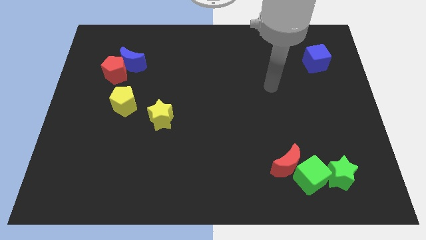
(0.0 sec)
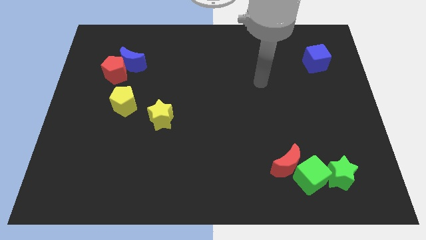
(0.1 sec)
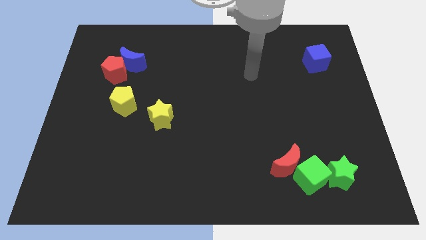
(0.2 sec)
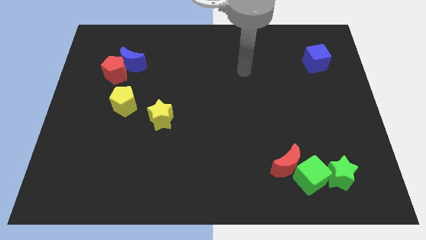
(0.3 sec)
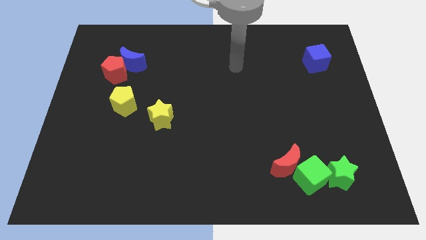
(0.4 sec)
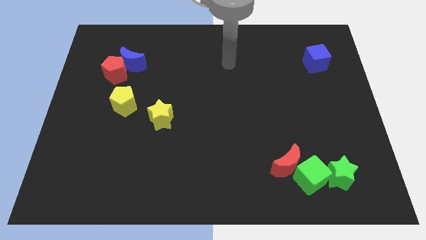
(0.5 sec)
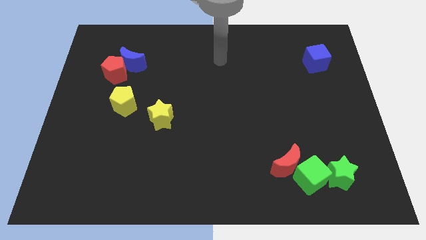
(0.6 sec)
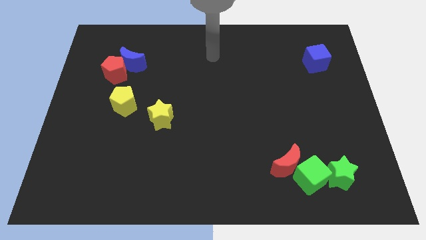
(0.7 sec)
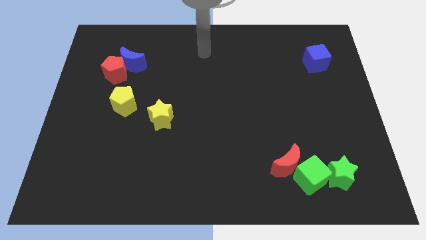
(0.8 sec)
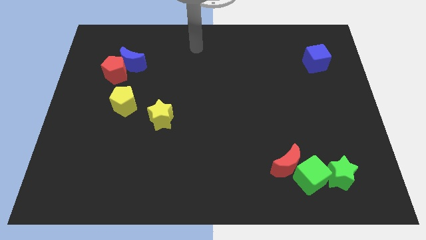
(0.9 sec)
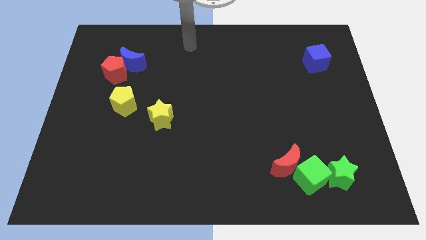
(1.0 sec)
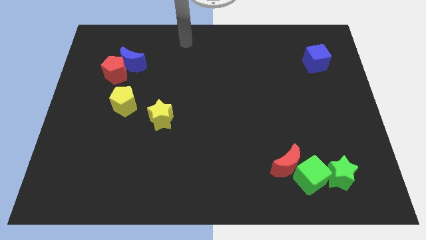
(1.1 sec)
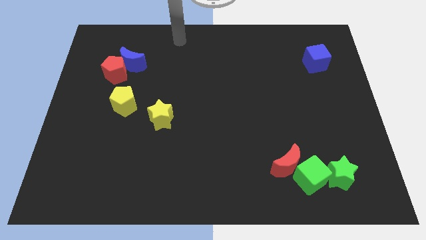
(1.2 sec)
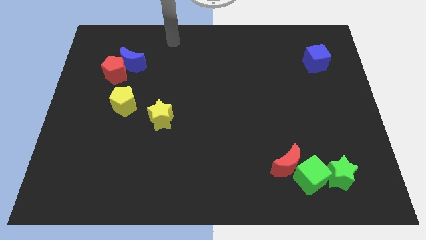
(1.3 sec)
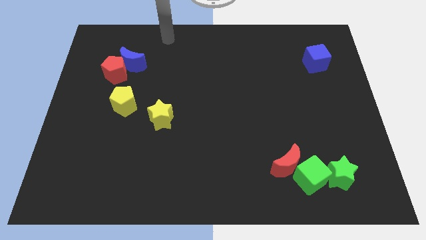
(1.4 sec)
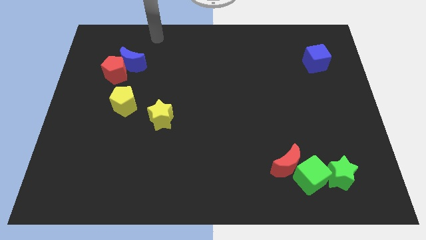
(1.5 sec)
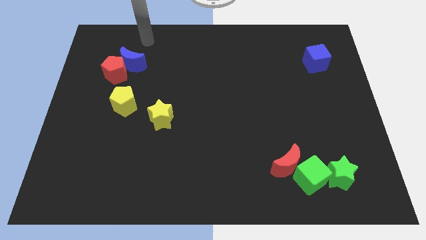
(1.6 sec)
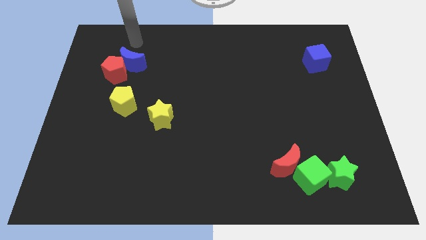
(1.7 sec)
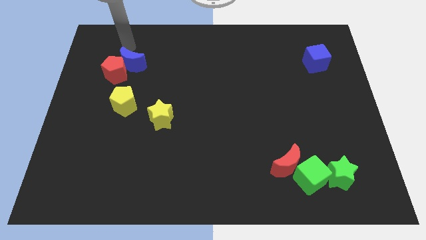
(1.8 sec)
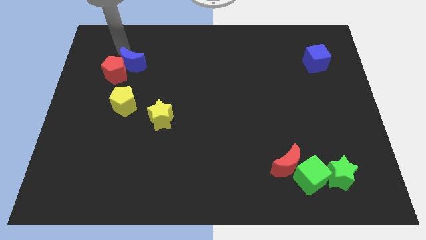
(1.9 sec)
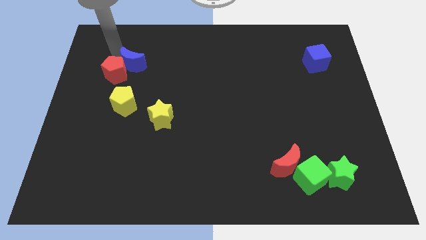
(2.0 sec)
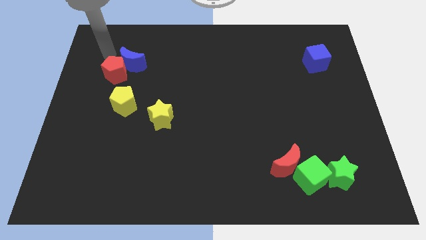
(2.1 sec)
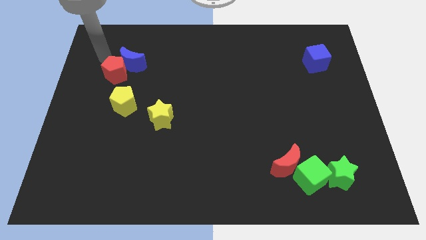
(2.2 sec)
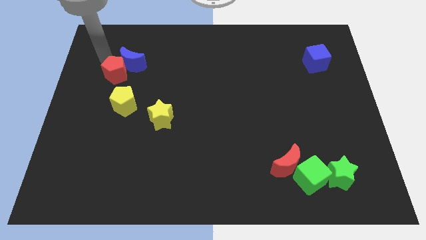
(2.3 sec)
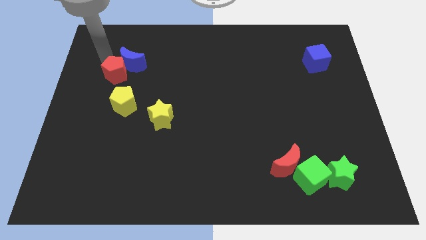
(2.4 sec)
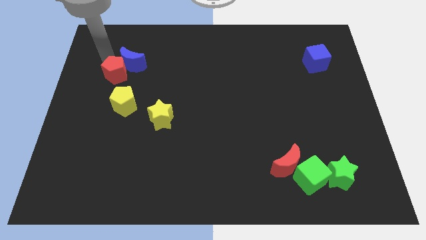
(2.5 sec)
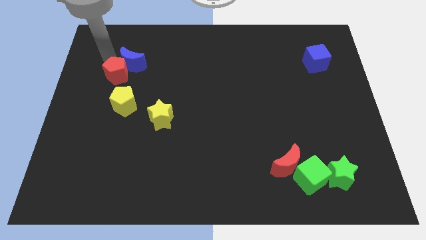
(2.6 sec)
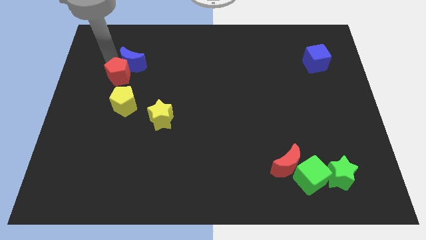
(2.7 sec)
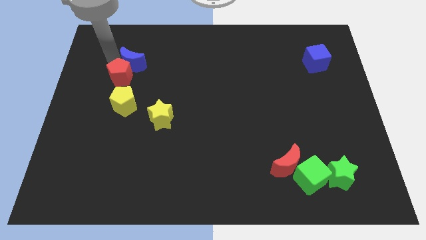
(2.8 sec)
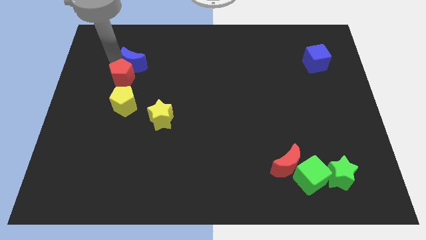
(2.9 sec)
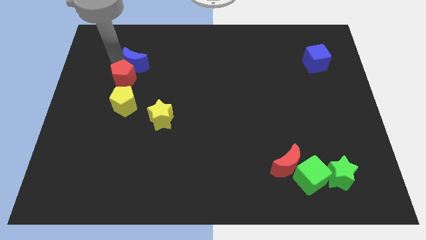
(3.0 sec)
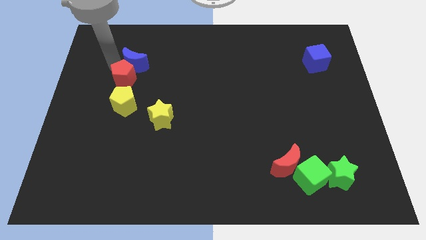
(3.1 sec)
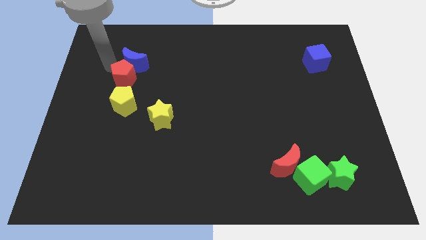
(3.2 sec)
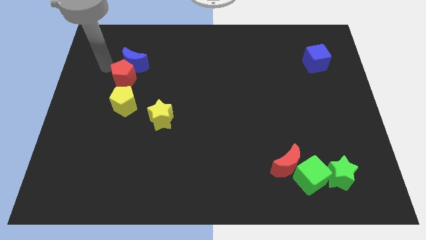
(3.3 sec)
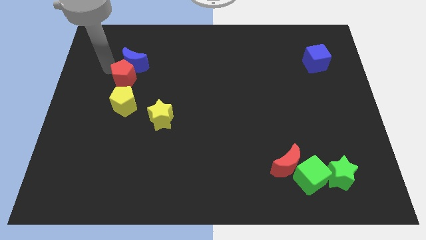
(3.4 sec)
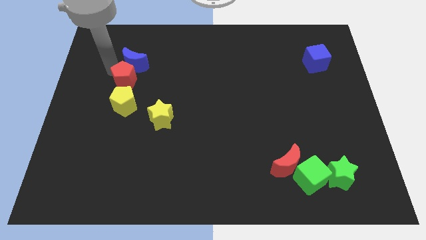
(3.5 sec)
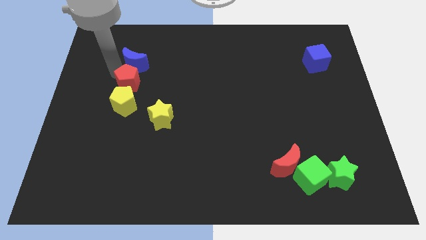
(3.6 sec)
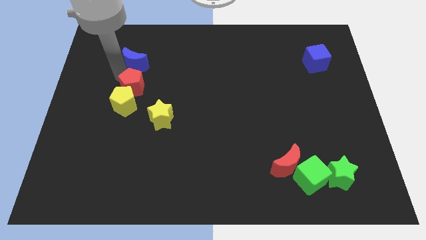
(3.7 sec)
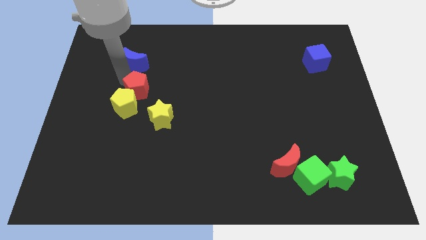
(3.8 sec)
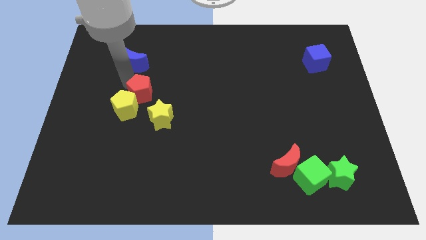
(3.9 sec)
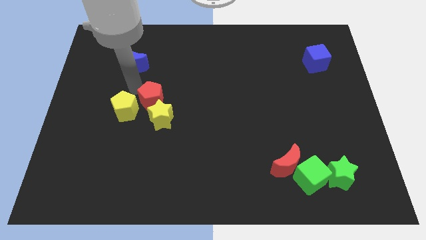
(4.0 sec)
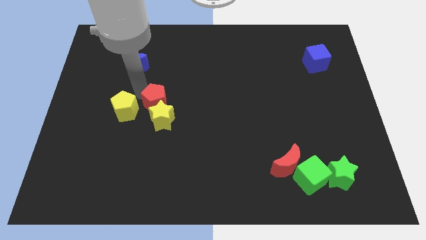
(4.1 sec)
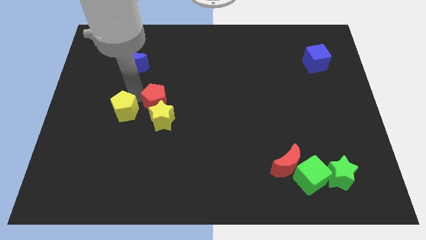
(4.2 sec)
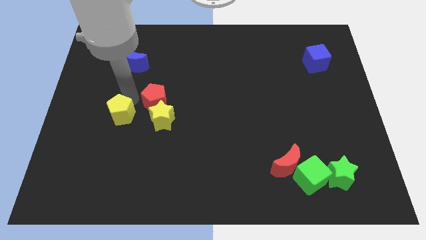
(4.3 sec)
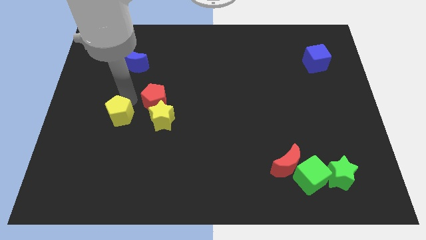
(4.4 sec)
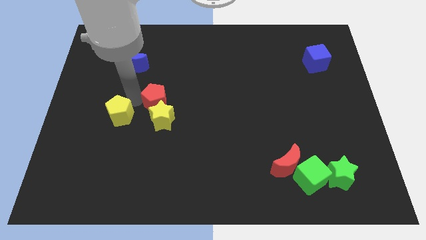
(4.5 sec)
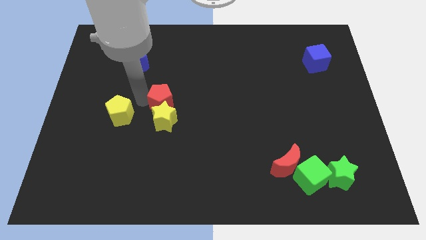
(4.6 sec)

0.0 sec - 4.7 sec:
slide the red pentagon to the top right side of the yellow star

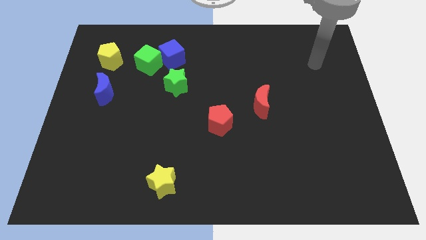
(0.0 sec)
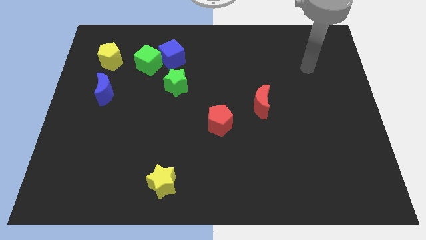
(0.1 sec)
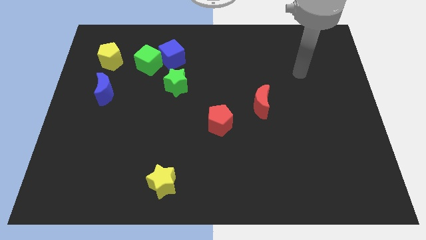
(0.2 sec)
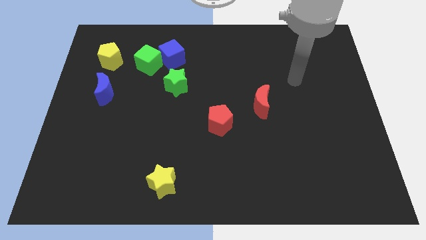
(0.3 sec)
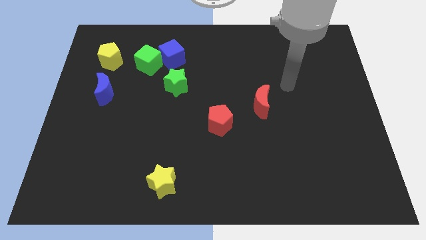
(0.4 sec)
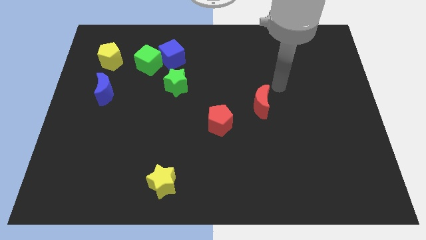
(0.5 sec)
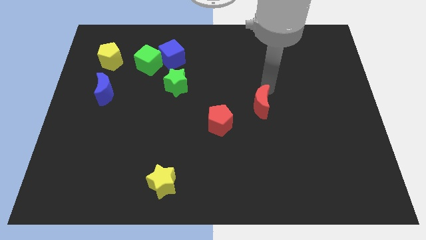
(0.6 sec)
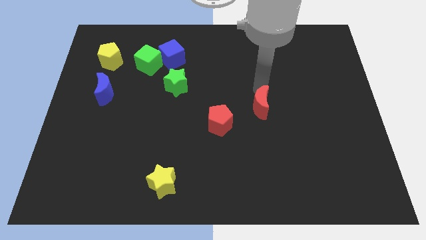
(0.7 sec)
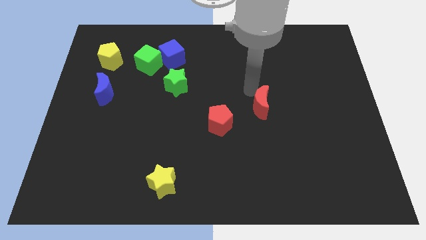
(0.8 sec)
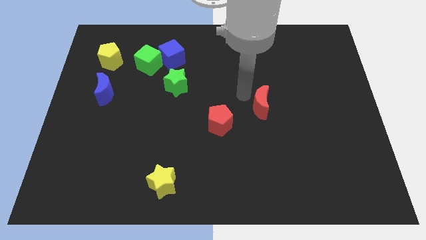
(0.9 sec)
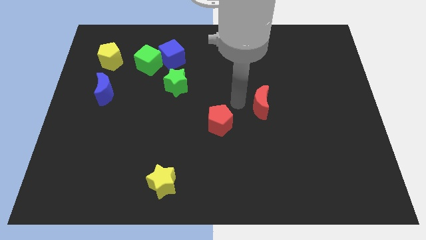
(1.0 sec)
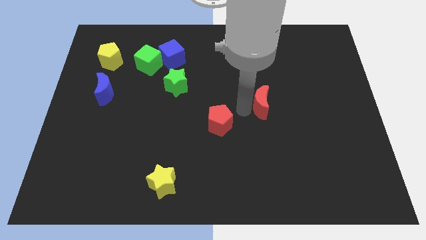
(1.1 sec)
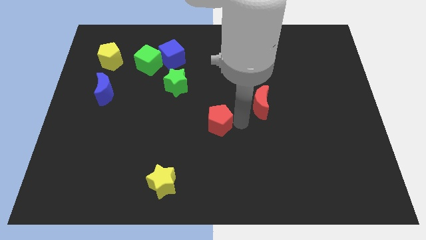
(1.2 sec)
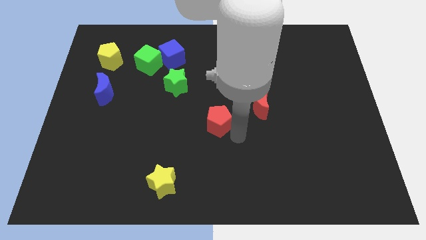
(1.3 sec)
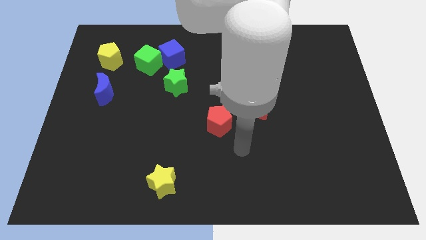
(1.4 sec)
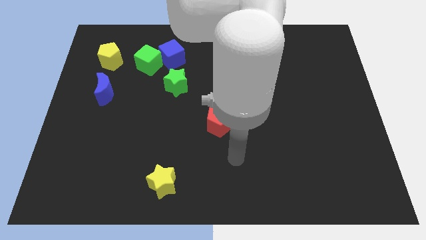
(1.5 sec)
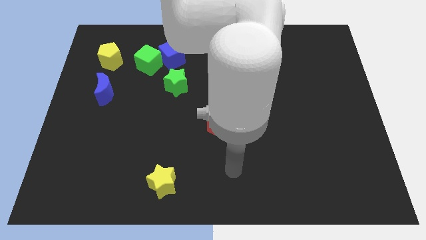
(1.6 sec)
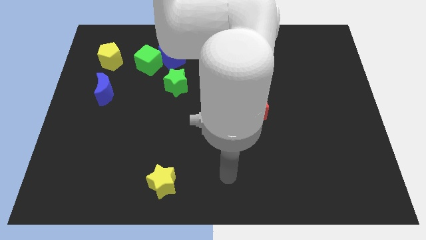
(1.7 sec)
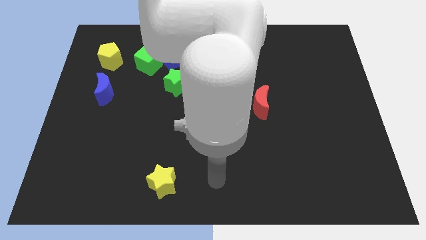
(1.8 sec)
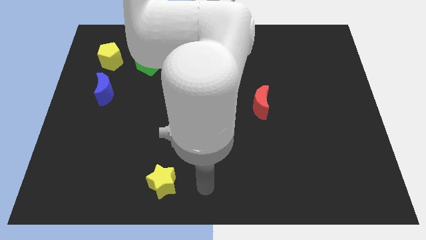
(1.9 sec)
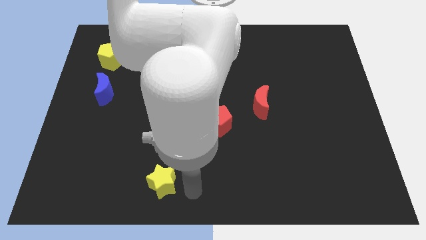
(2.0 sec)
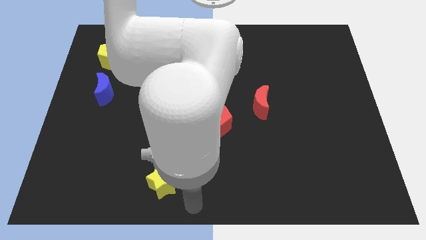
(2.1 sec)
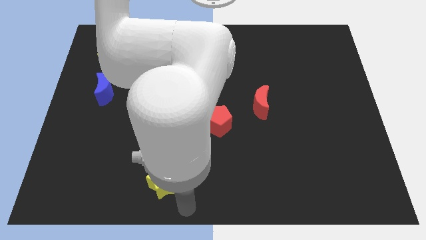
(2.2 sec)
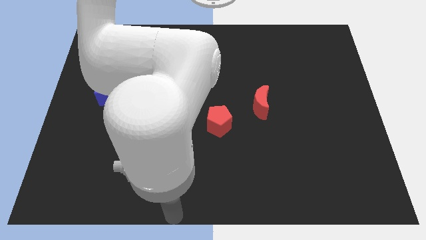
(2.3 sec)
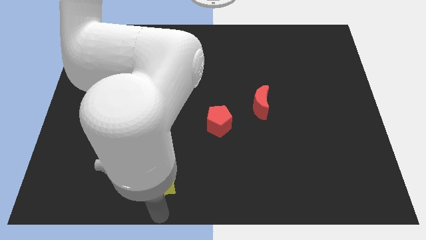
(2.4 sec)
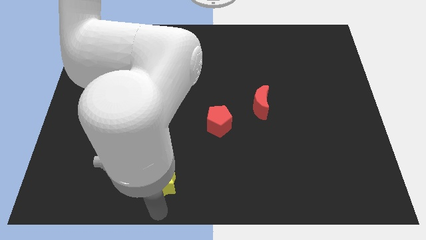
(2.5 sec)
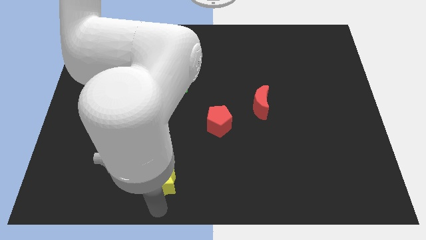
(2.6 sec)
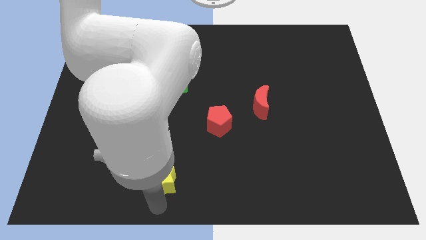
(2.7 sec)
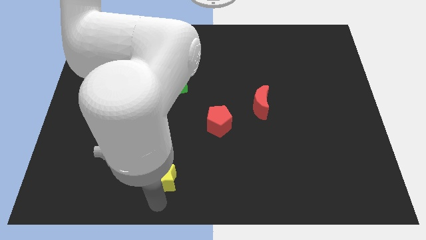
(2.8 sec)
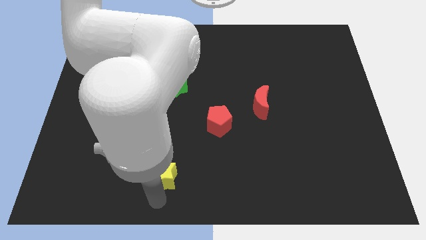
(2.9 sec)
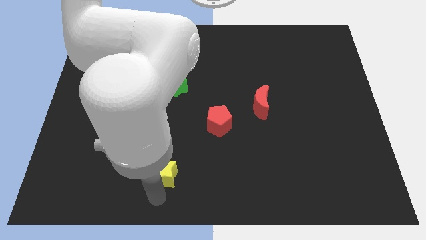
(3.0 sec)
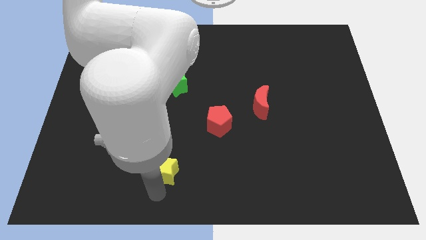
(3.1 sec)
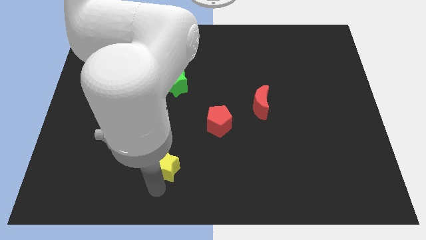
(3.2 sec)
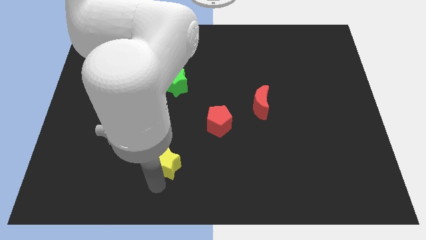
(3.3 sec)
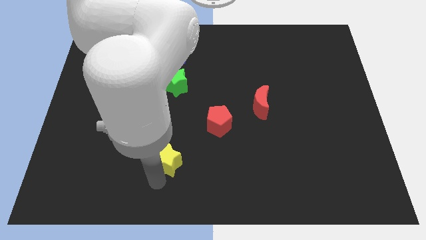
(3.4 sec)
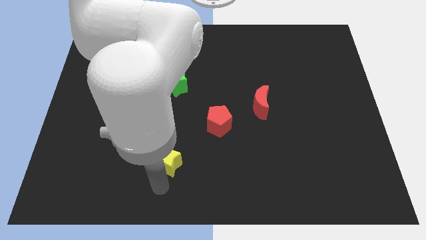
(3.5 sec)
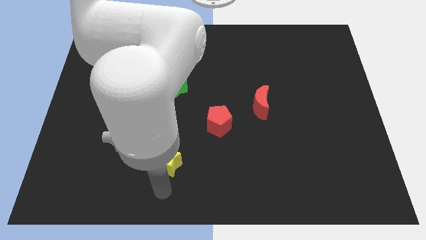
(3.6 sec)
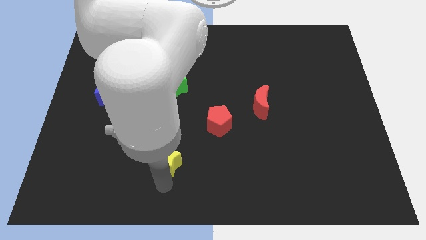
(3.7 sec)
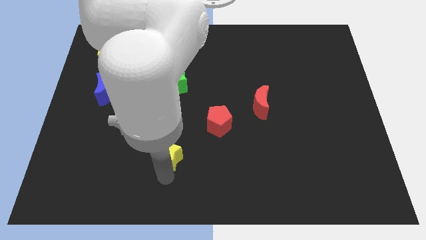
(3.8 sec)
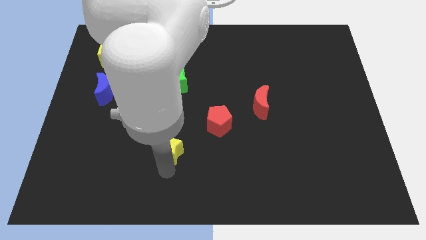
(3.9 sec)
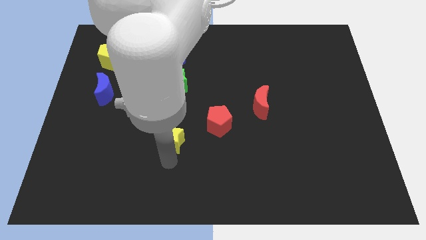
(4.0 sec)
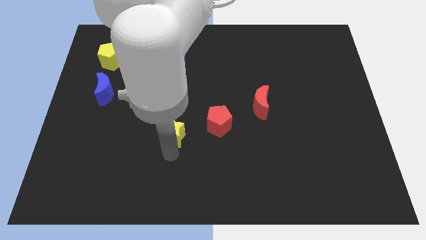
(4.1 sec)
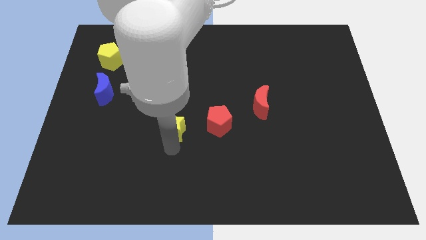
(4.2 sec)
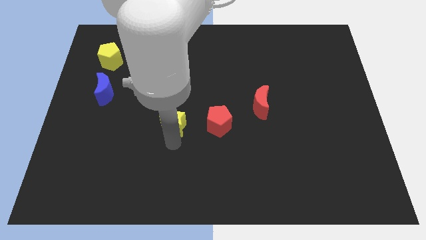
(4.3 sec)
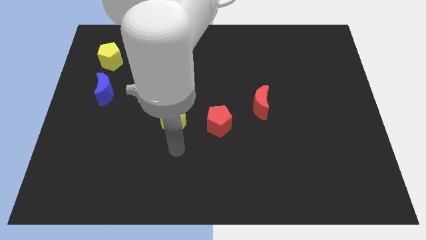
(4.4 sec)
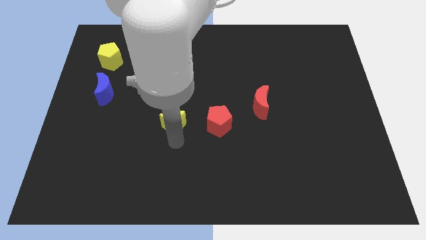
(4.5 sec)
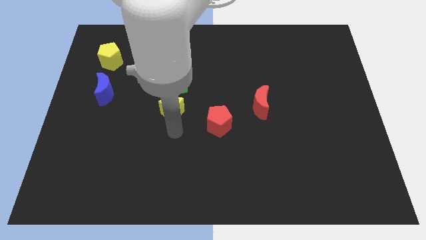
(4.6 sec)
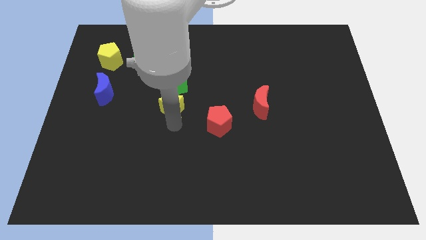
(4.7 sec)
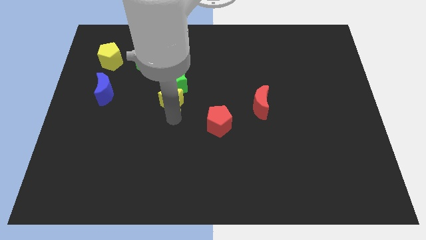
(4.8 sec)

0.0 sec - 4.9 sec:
put the yellow star to the bottom side of the blue cube
